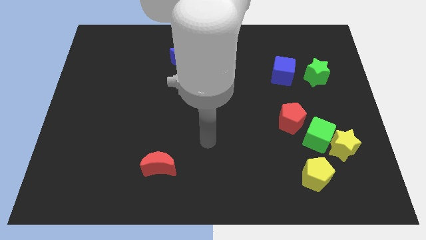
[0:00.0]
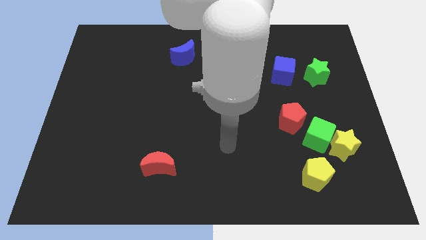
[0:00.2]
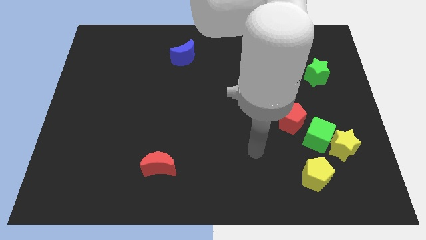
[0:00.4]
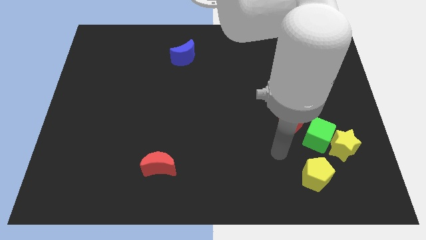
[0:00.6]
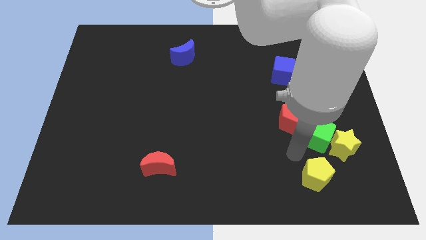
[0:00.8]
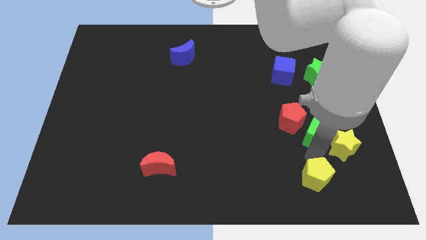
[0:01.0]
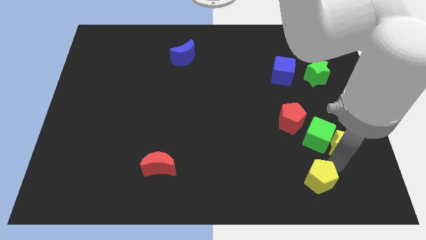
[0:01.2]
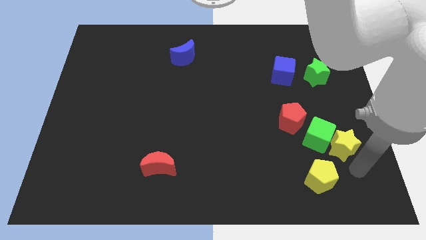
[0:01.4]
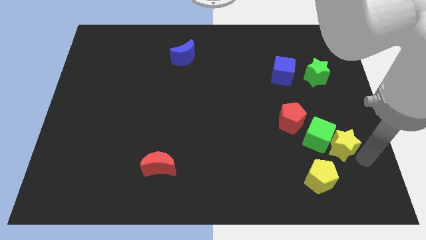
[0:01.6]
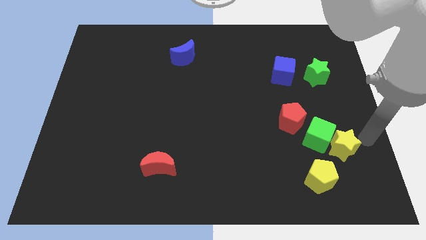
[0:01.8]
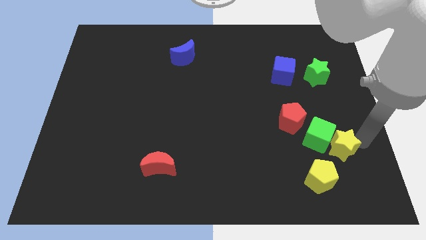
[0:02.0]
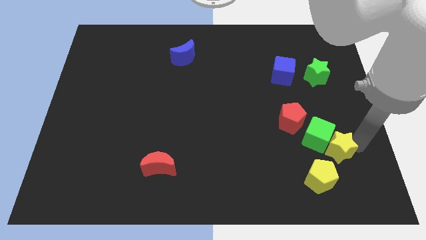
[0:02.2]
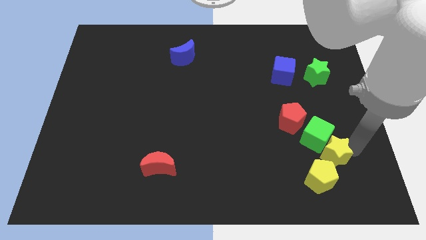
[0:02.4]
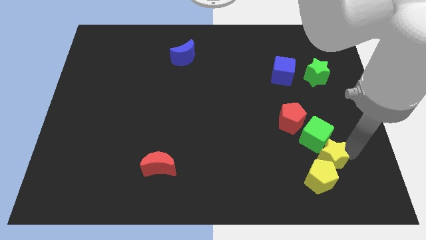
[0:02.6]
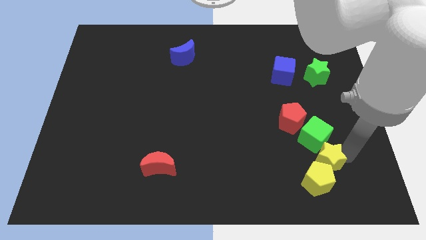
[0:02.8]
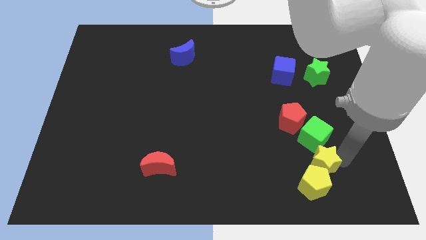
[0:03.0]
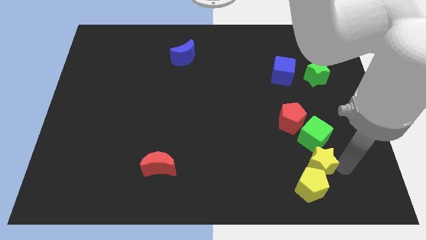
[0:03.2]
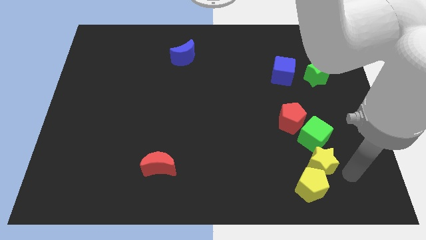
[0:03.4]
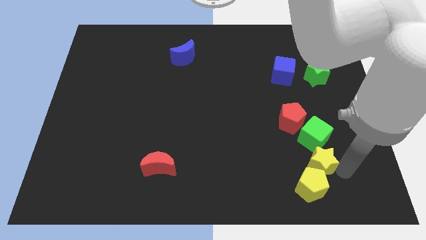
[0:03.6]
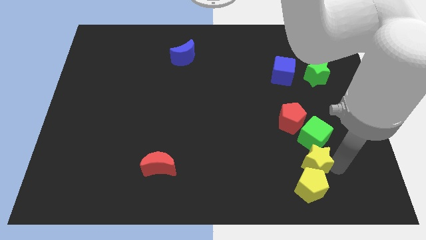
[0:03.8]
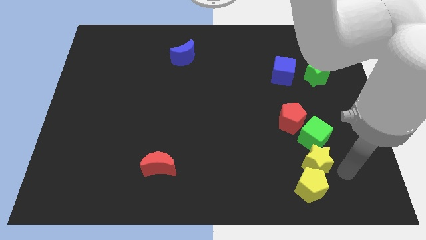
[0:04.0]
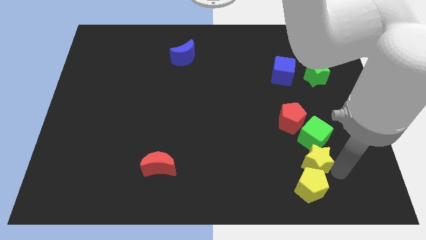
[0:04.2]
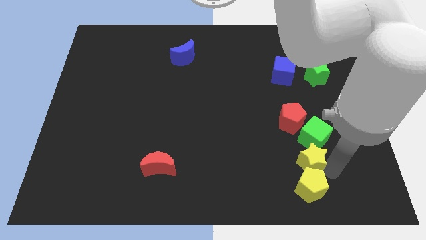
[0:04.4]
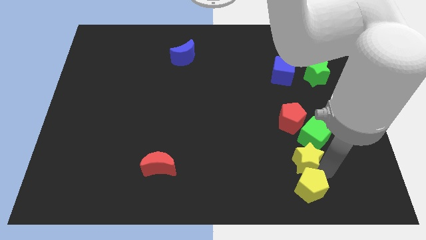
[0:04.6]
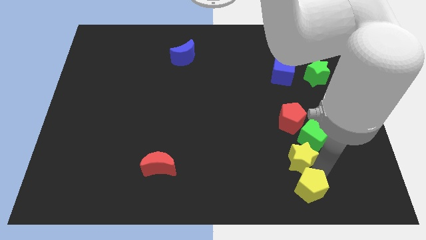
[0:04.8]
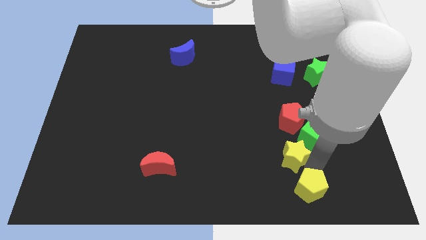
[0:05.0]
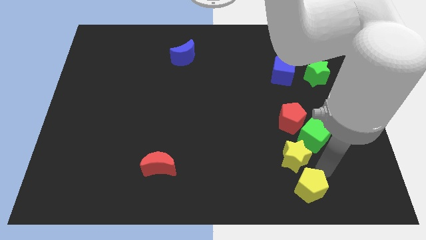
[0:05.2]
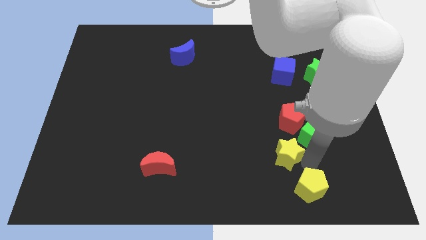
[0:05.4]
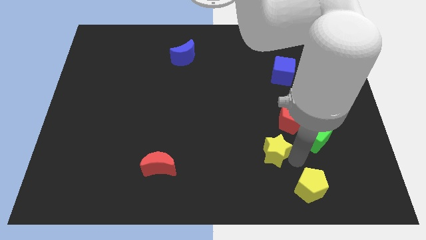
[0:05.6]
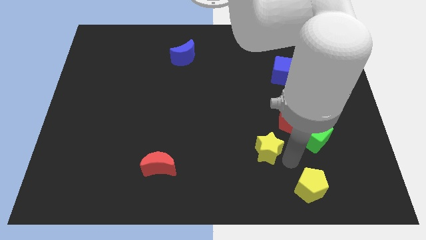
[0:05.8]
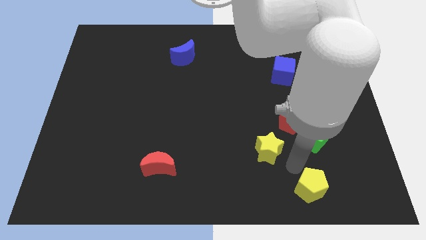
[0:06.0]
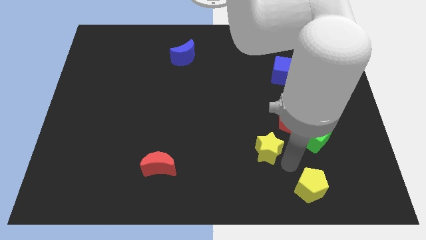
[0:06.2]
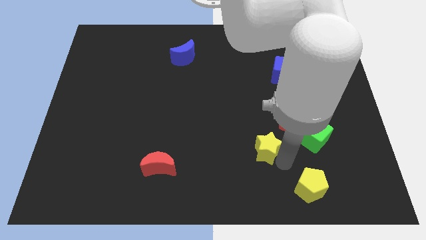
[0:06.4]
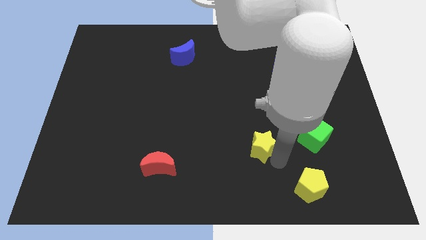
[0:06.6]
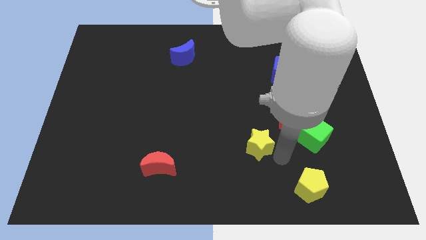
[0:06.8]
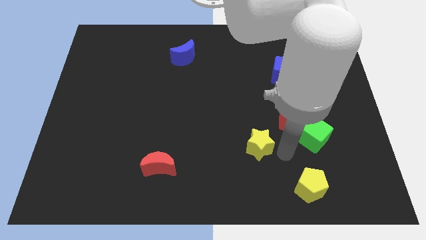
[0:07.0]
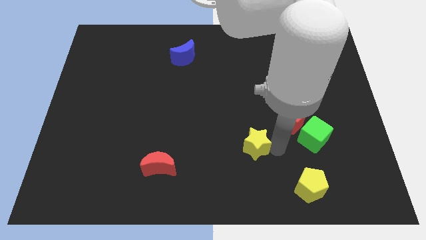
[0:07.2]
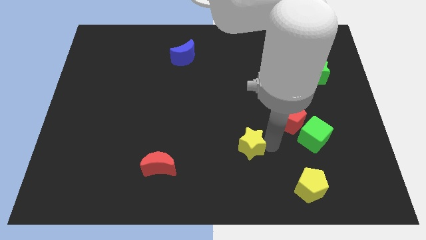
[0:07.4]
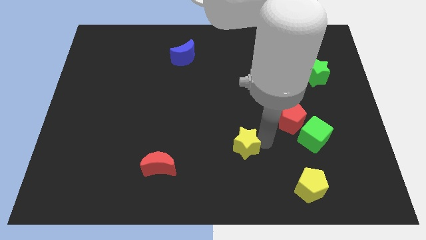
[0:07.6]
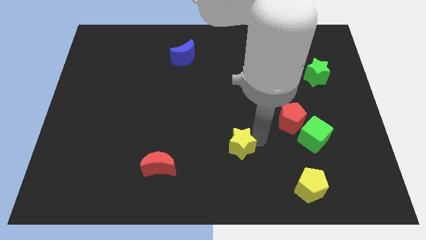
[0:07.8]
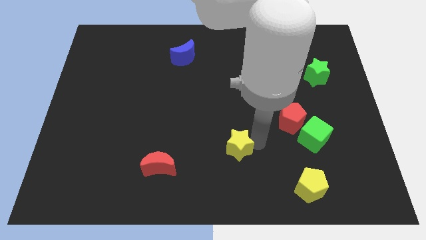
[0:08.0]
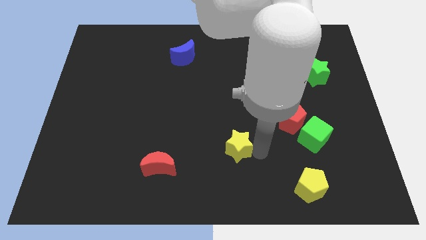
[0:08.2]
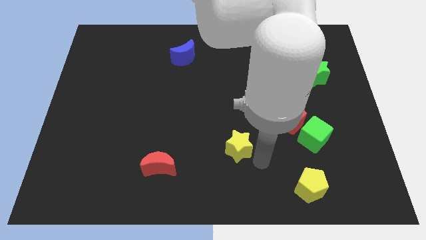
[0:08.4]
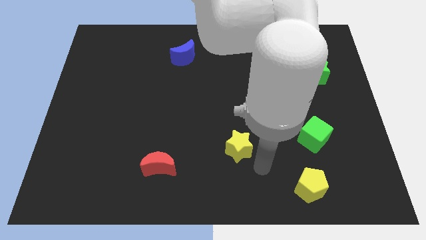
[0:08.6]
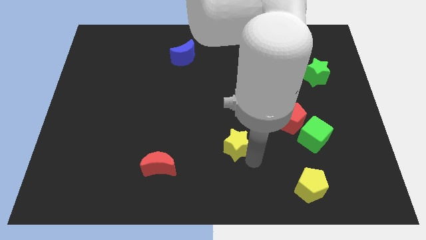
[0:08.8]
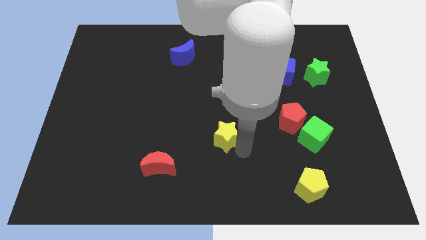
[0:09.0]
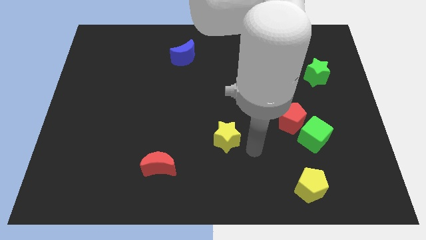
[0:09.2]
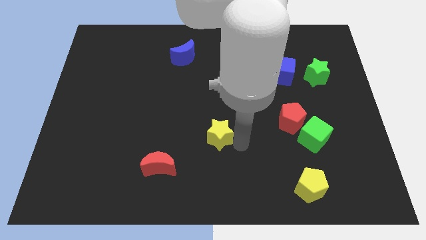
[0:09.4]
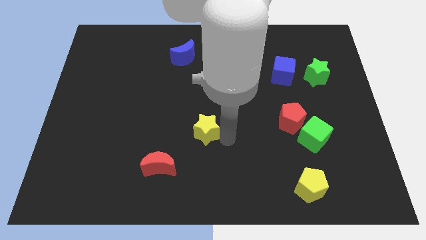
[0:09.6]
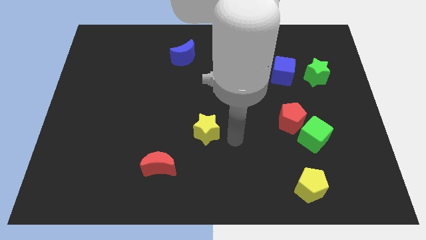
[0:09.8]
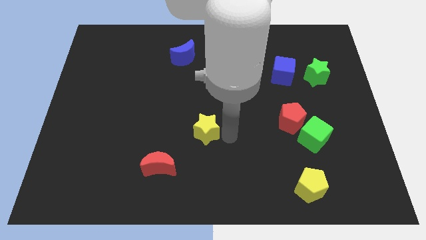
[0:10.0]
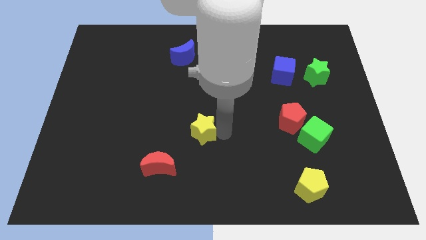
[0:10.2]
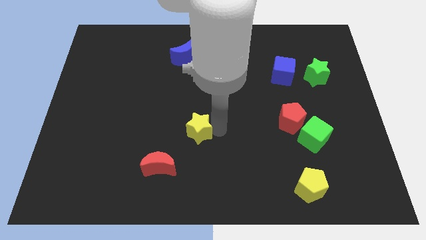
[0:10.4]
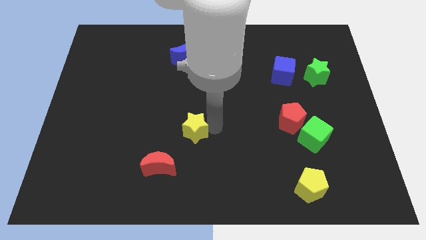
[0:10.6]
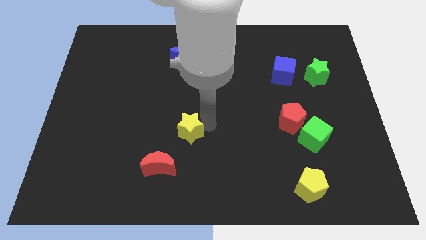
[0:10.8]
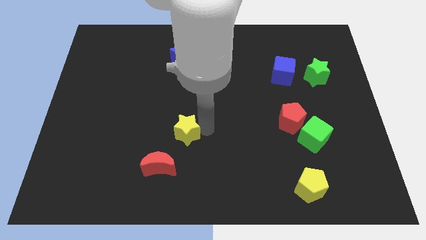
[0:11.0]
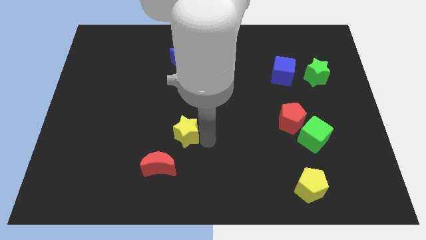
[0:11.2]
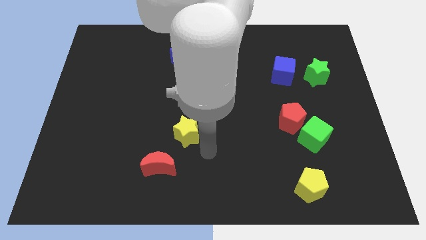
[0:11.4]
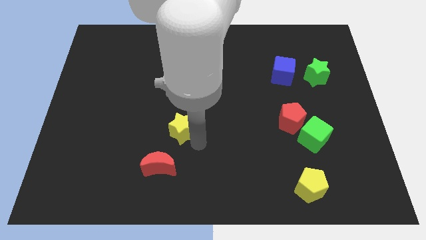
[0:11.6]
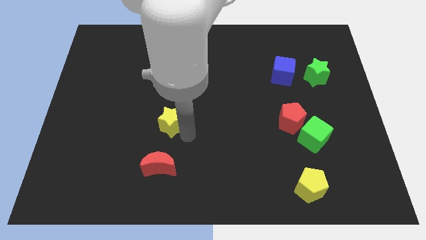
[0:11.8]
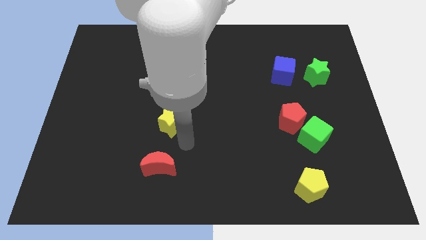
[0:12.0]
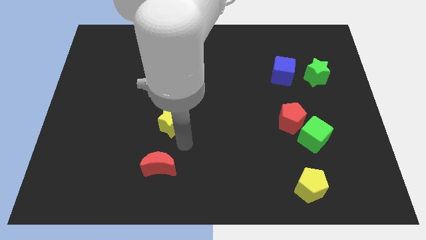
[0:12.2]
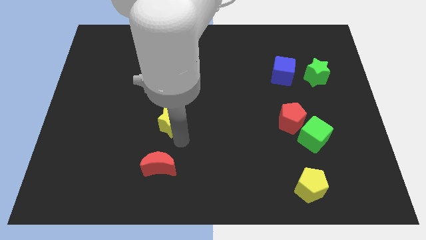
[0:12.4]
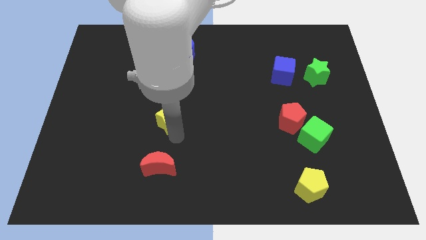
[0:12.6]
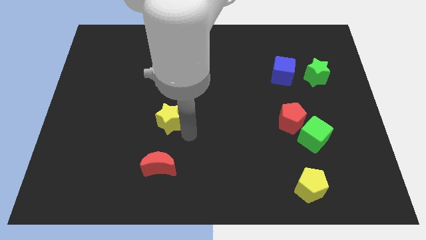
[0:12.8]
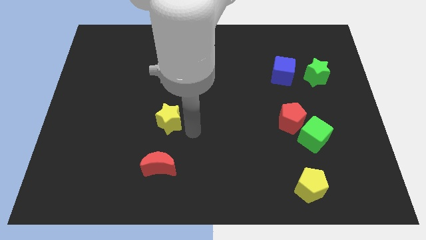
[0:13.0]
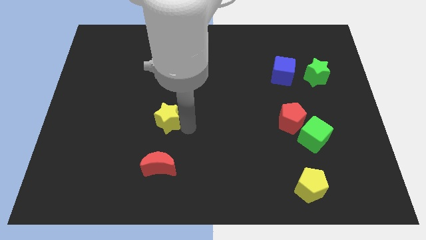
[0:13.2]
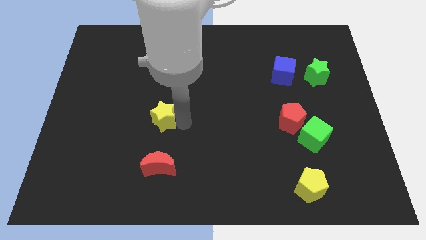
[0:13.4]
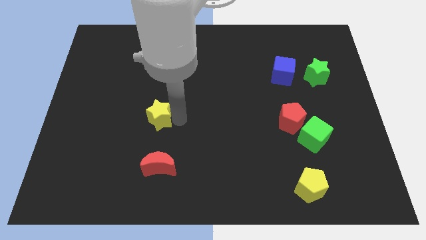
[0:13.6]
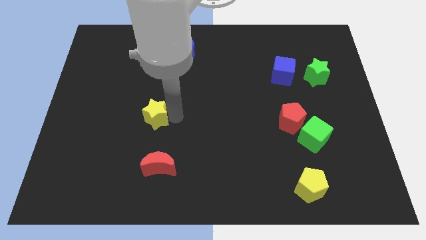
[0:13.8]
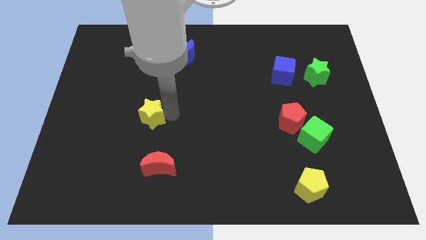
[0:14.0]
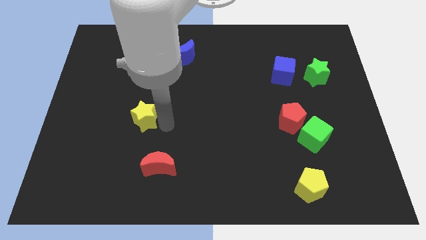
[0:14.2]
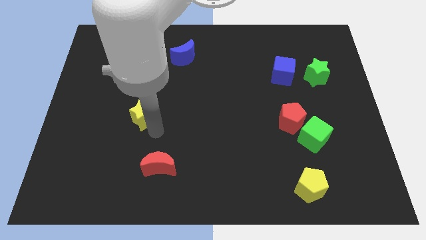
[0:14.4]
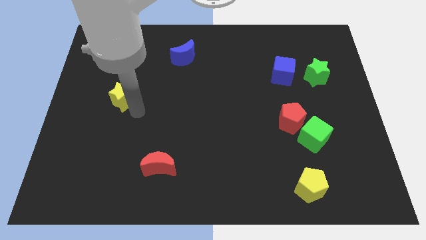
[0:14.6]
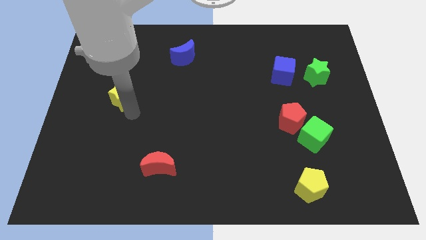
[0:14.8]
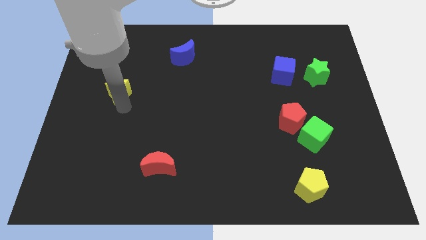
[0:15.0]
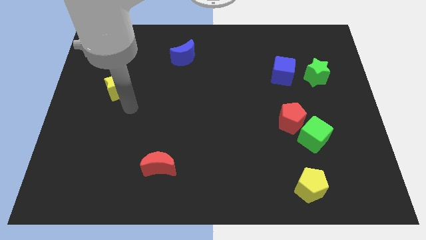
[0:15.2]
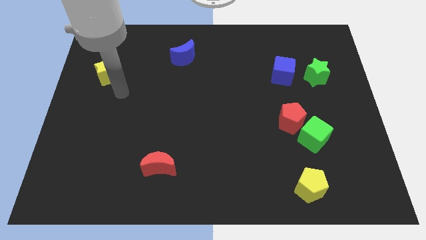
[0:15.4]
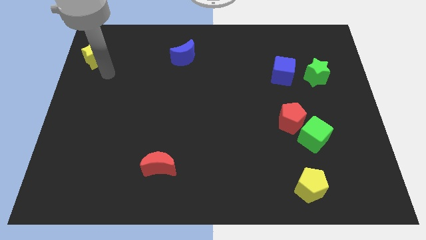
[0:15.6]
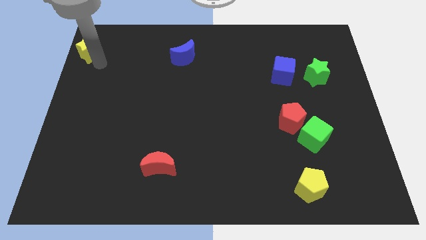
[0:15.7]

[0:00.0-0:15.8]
put the yellow star to the top left
